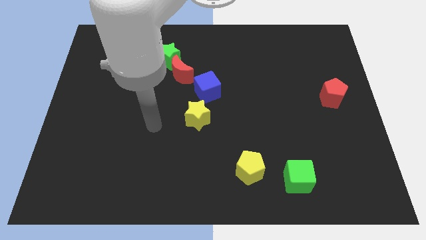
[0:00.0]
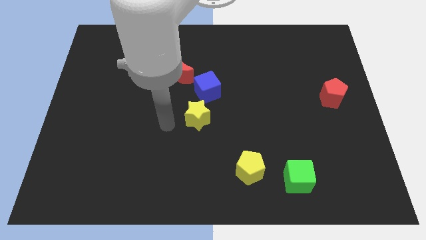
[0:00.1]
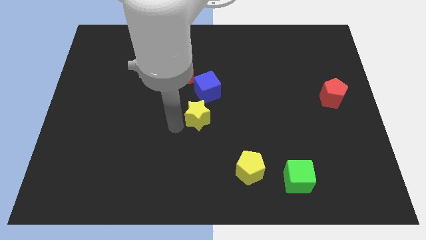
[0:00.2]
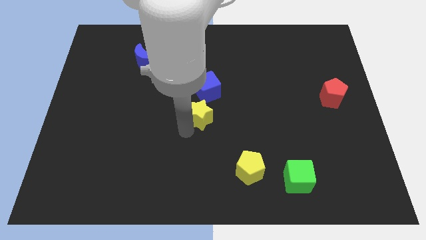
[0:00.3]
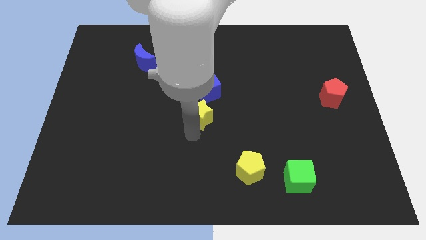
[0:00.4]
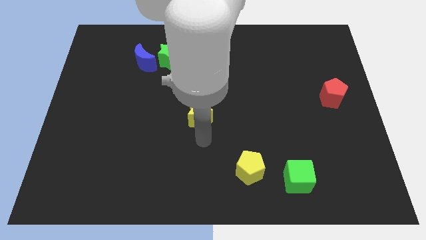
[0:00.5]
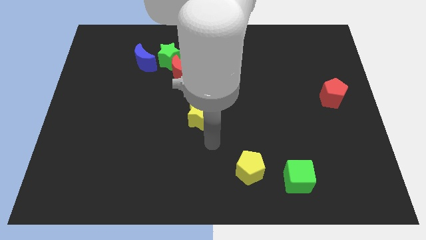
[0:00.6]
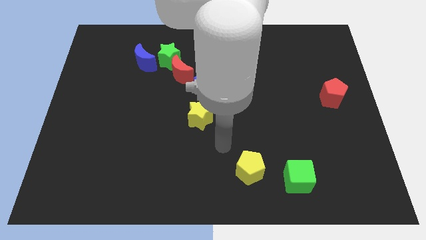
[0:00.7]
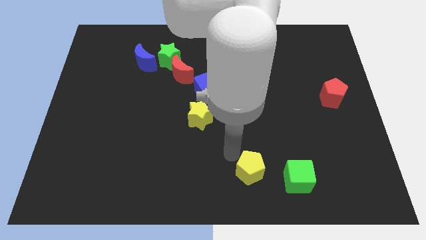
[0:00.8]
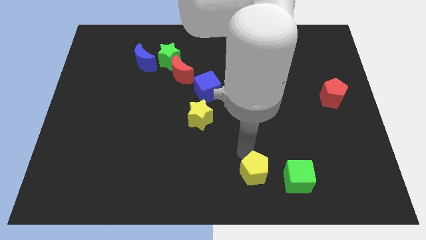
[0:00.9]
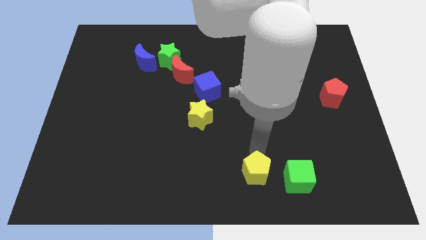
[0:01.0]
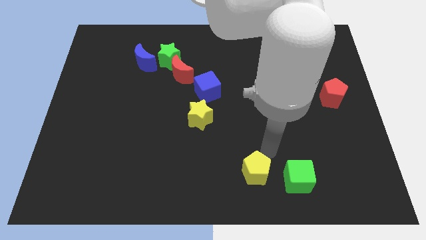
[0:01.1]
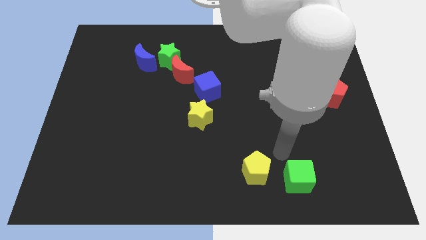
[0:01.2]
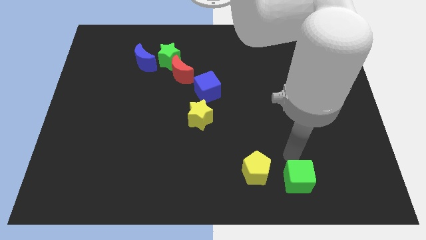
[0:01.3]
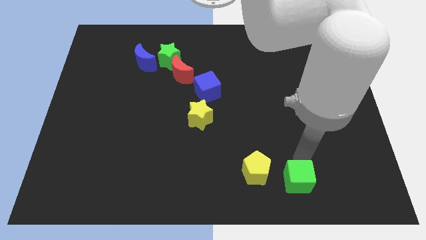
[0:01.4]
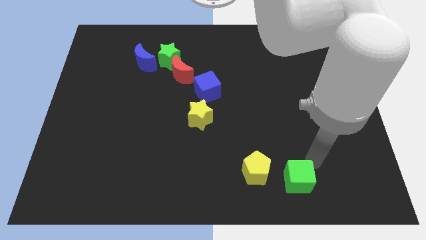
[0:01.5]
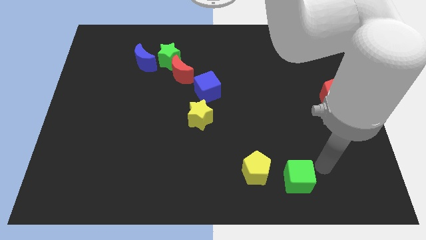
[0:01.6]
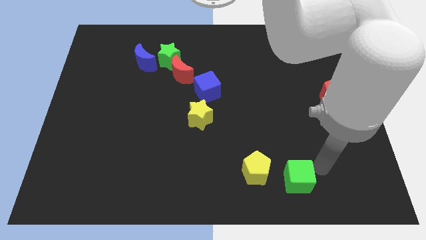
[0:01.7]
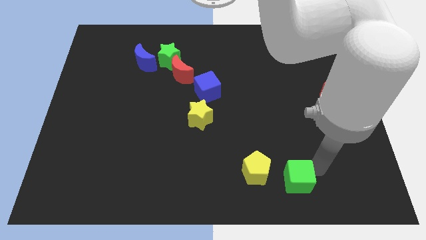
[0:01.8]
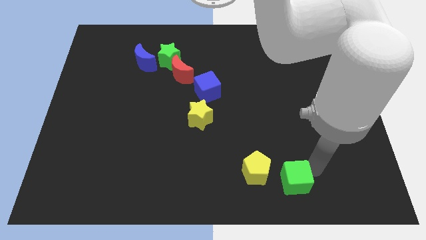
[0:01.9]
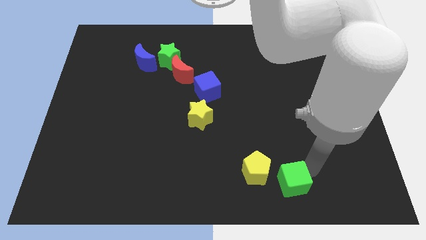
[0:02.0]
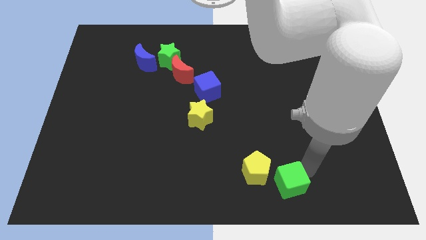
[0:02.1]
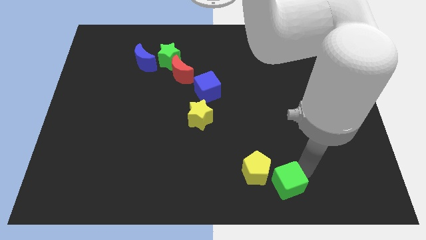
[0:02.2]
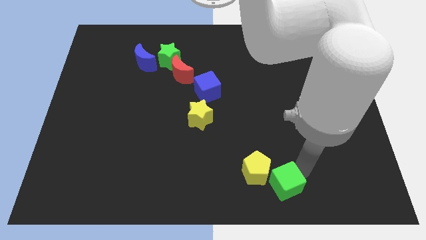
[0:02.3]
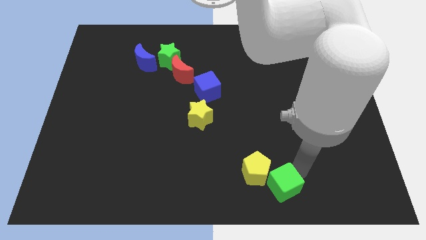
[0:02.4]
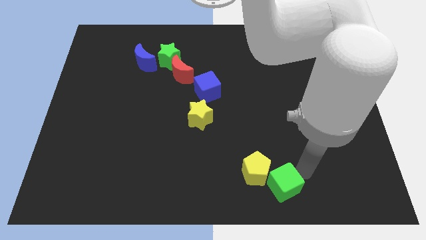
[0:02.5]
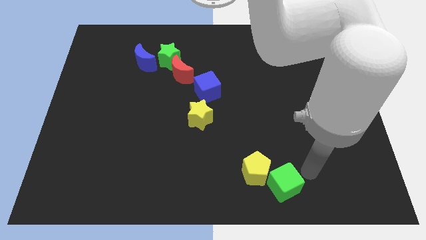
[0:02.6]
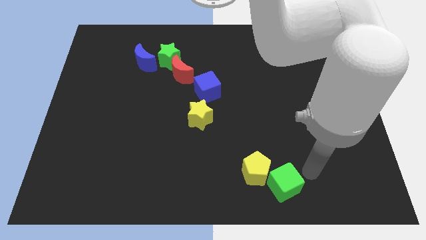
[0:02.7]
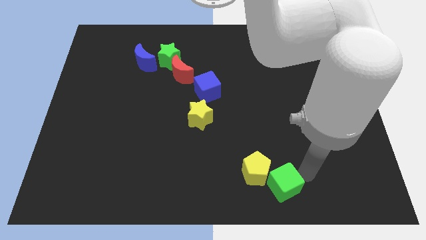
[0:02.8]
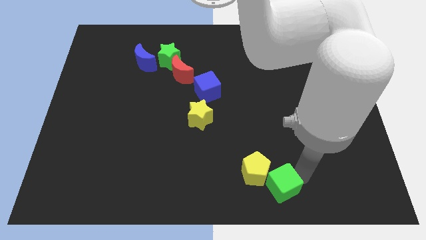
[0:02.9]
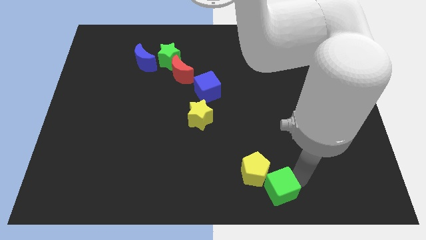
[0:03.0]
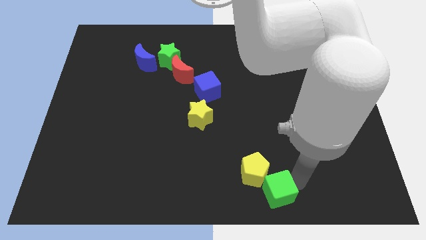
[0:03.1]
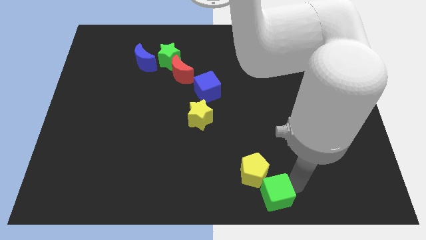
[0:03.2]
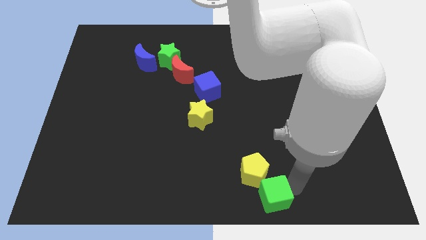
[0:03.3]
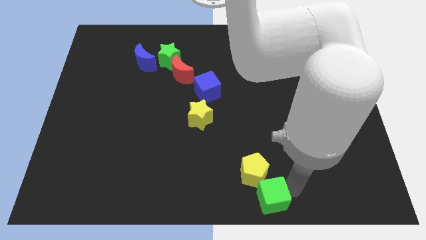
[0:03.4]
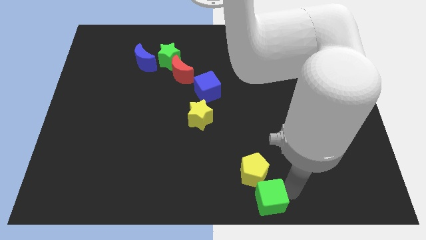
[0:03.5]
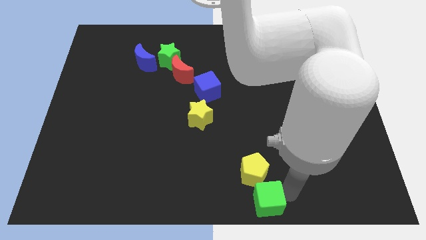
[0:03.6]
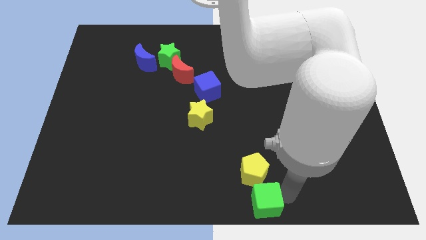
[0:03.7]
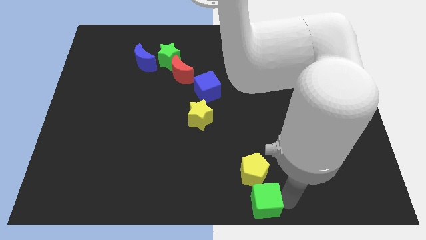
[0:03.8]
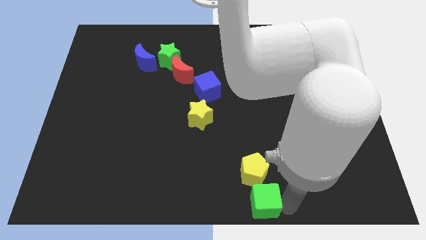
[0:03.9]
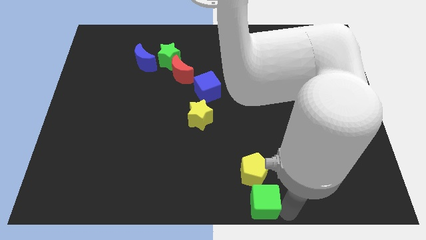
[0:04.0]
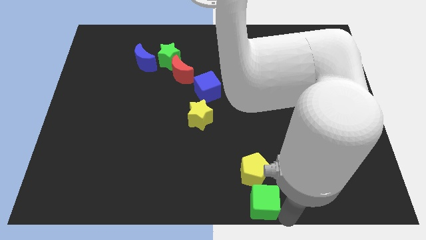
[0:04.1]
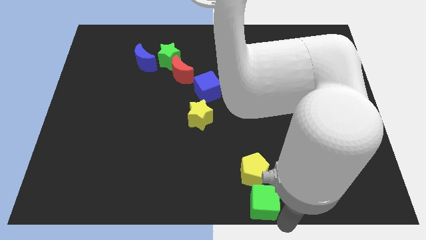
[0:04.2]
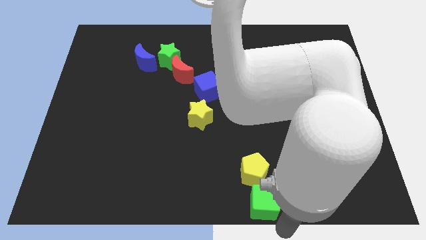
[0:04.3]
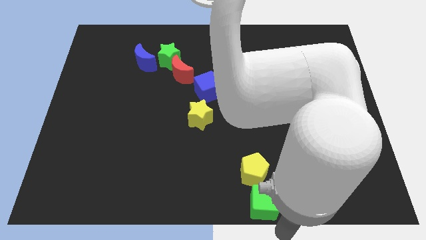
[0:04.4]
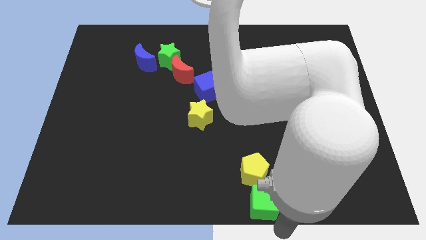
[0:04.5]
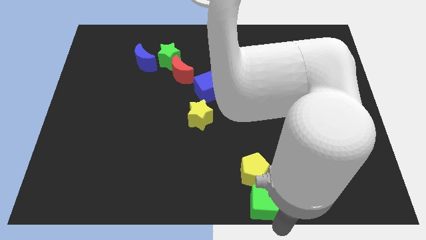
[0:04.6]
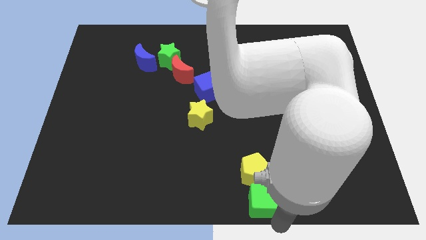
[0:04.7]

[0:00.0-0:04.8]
slightly push the green cube left

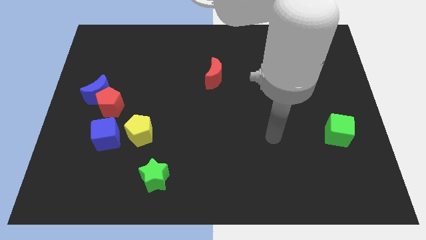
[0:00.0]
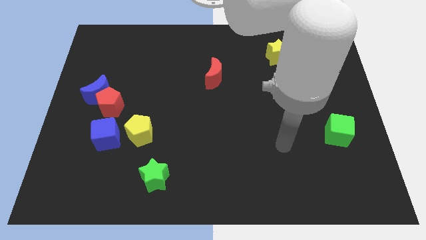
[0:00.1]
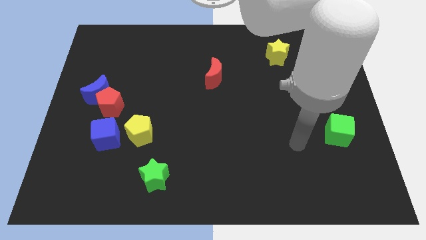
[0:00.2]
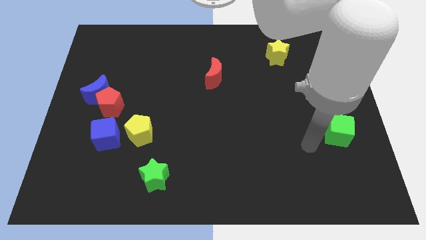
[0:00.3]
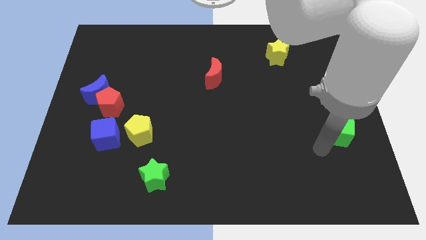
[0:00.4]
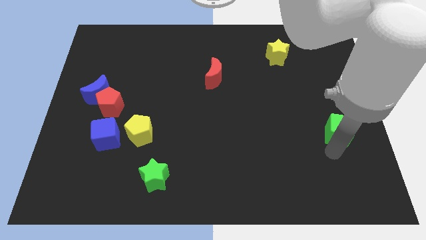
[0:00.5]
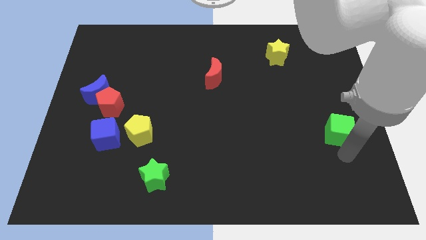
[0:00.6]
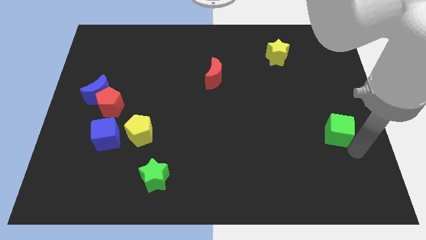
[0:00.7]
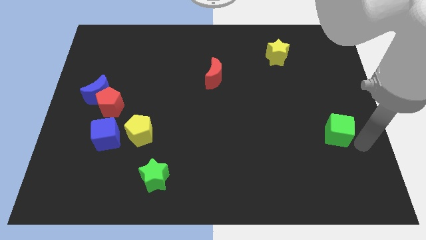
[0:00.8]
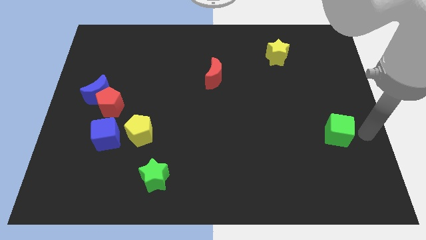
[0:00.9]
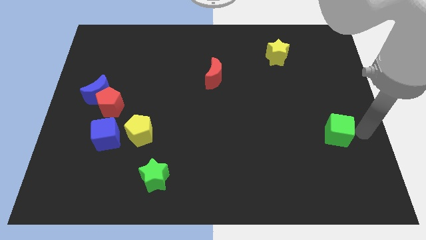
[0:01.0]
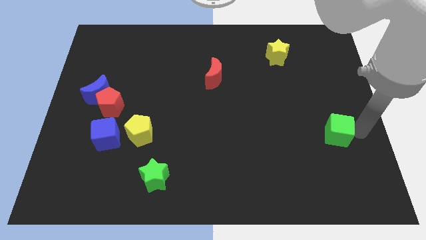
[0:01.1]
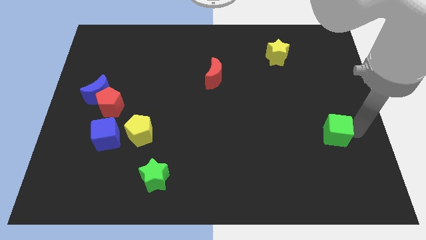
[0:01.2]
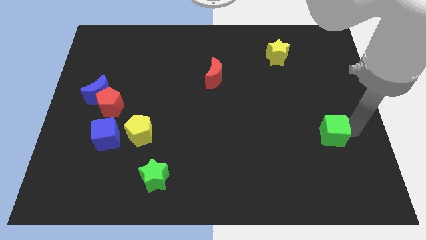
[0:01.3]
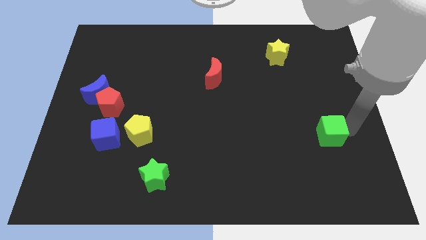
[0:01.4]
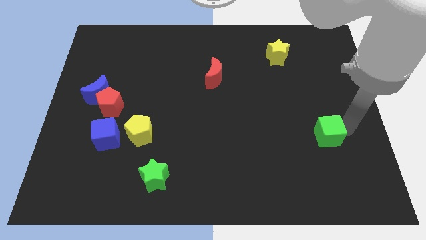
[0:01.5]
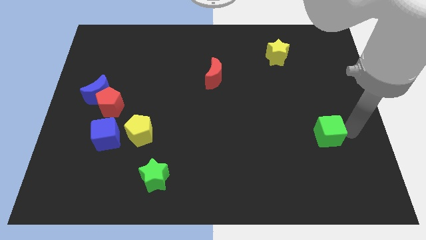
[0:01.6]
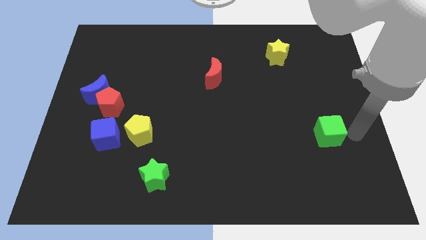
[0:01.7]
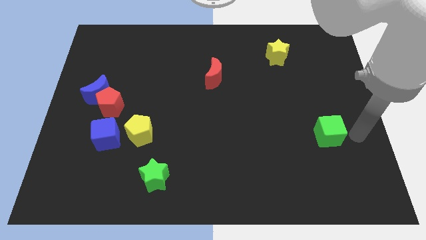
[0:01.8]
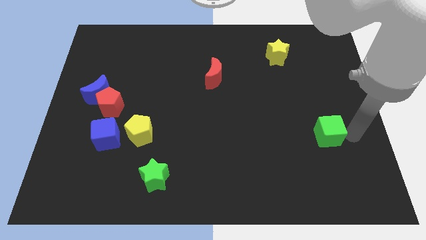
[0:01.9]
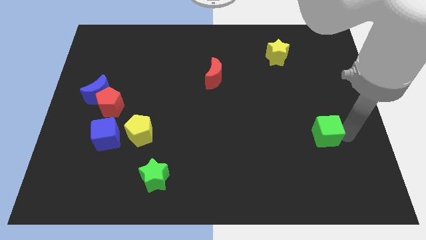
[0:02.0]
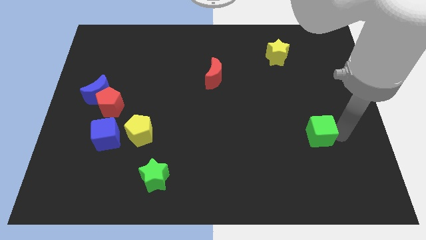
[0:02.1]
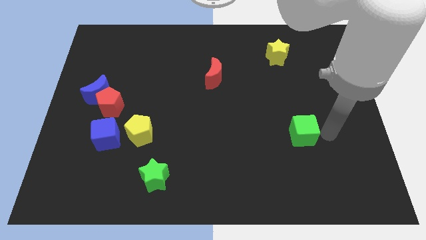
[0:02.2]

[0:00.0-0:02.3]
push the green cube to the left a bit

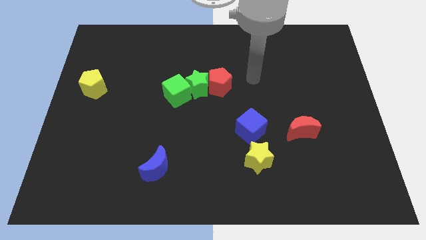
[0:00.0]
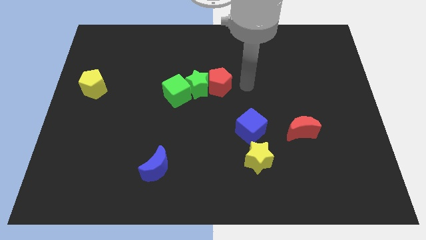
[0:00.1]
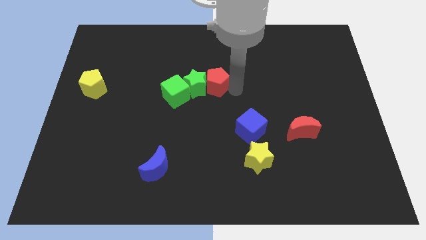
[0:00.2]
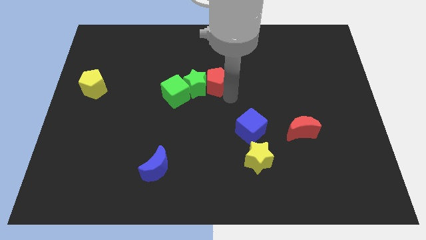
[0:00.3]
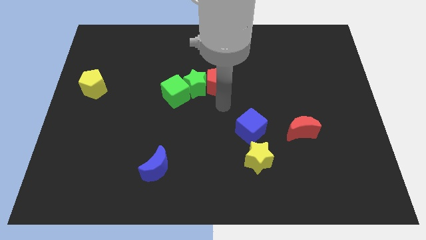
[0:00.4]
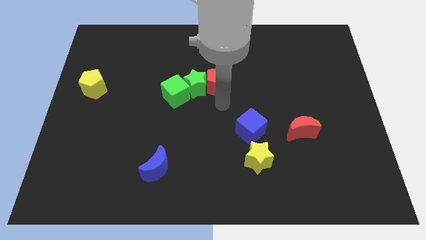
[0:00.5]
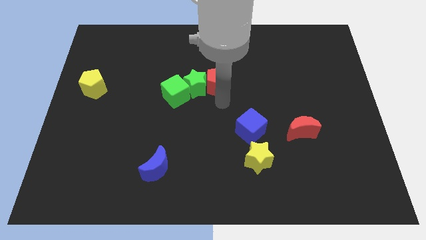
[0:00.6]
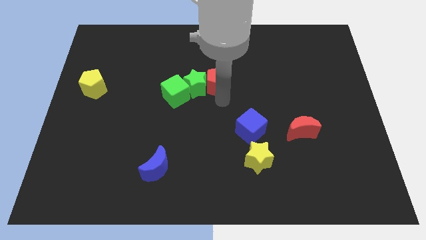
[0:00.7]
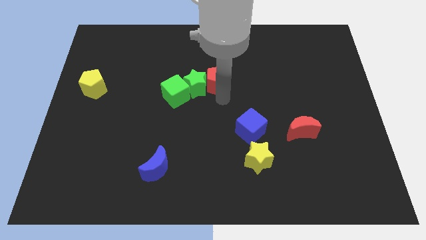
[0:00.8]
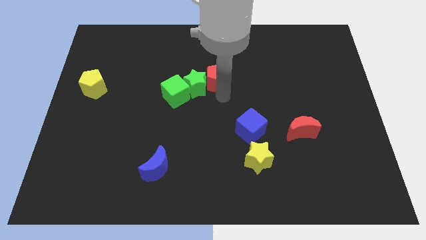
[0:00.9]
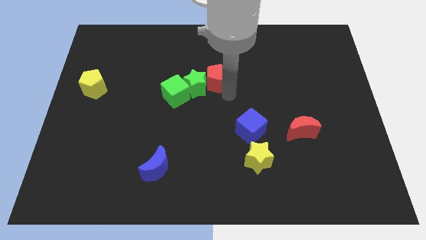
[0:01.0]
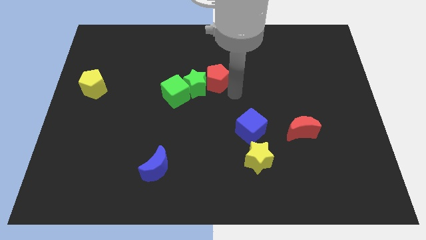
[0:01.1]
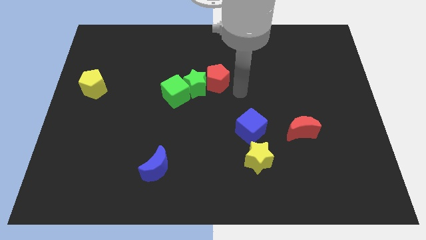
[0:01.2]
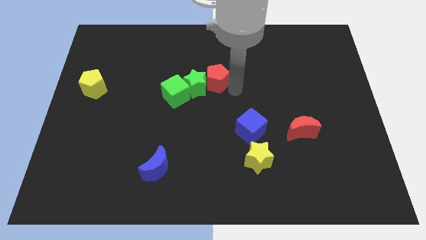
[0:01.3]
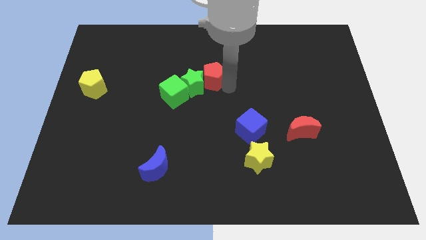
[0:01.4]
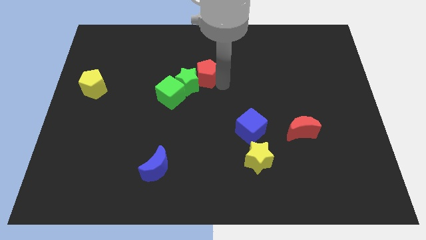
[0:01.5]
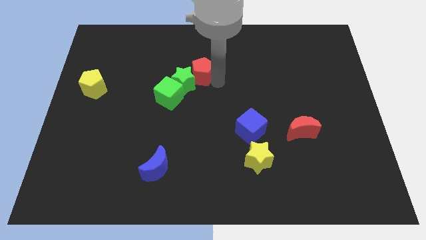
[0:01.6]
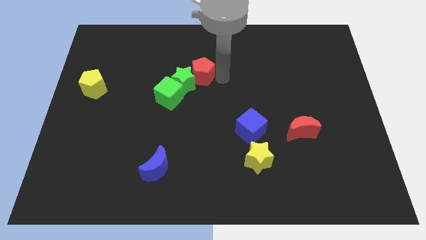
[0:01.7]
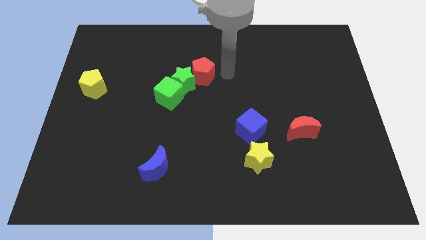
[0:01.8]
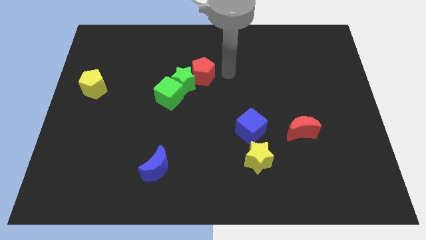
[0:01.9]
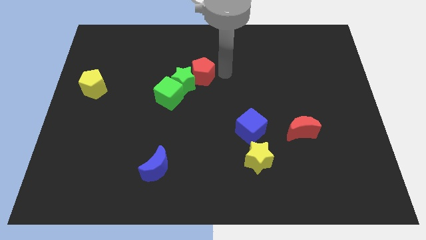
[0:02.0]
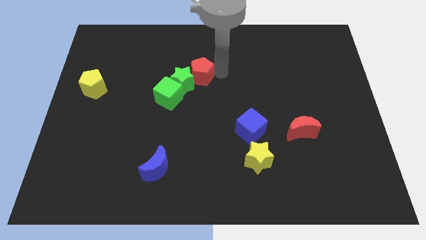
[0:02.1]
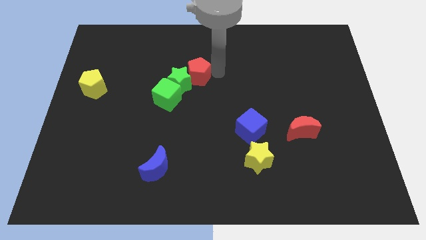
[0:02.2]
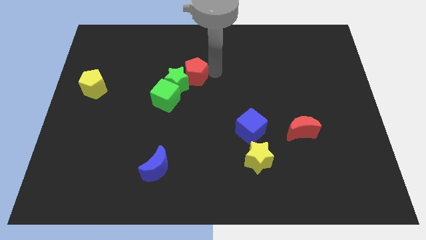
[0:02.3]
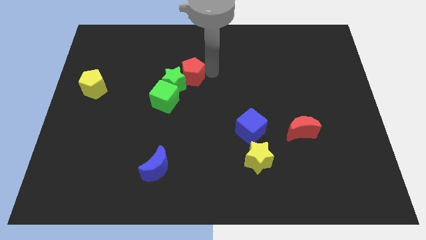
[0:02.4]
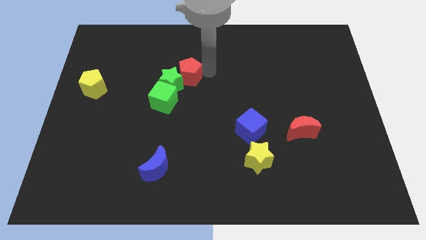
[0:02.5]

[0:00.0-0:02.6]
push the red pentagon to the left a little bit
